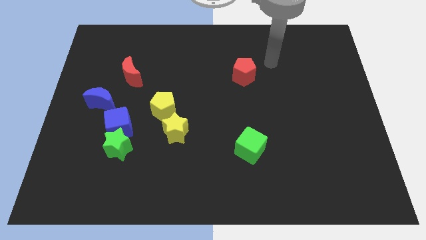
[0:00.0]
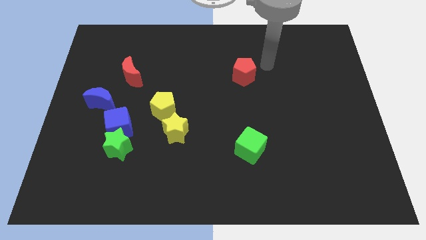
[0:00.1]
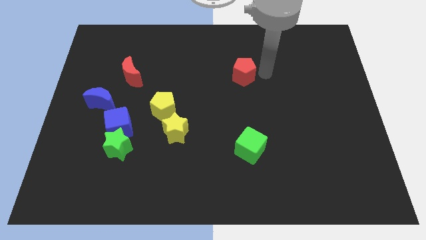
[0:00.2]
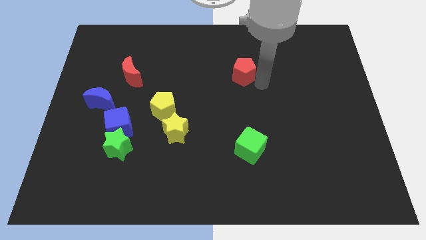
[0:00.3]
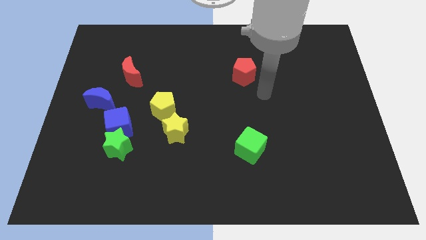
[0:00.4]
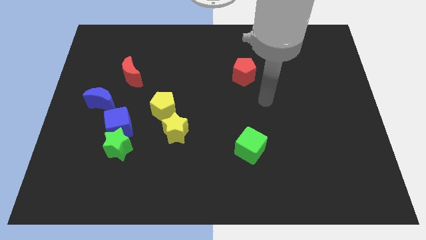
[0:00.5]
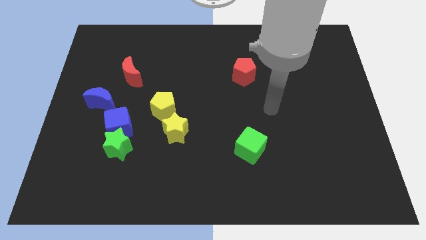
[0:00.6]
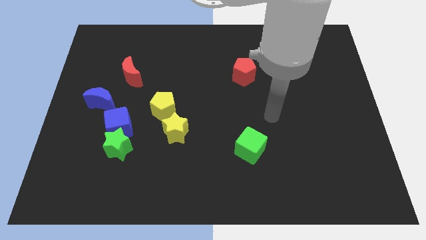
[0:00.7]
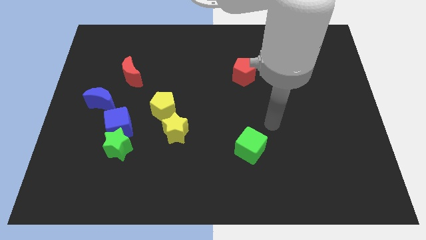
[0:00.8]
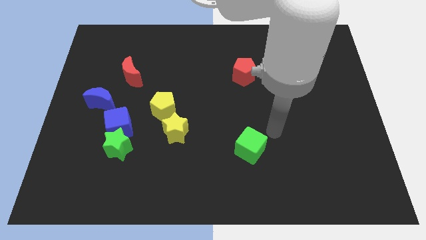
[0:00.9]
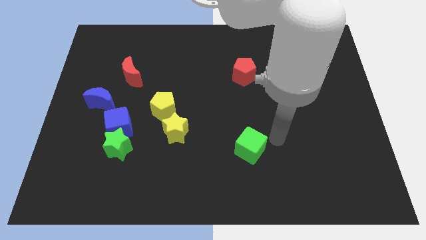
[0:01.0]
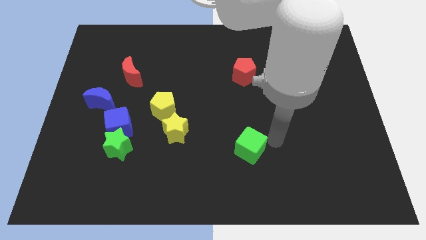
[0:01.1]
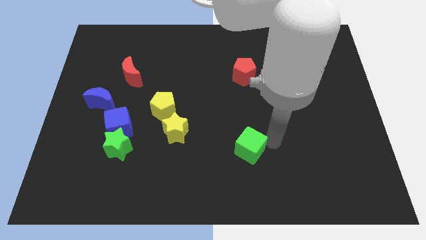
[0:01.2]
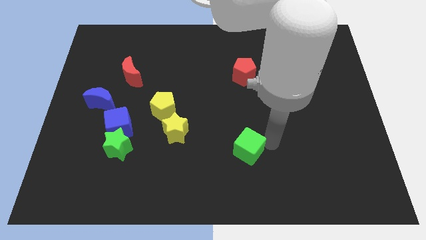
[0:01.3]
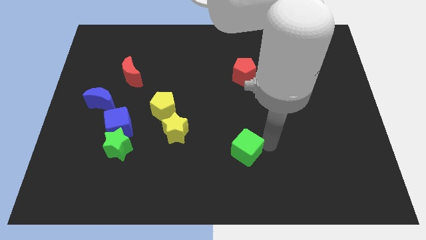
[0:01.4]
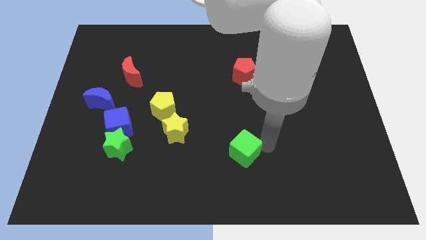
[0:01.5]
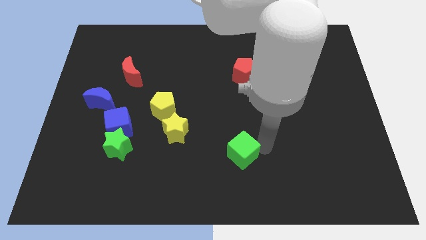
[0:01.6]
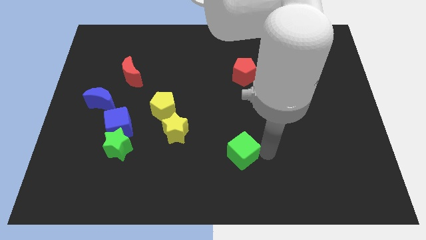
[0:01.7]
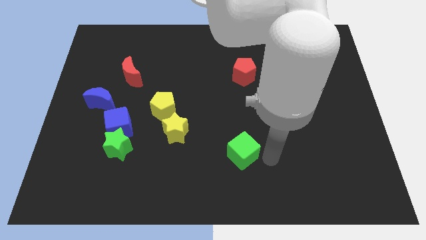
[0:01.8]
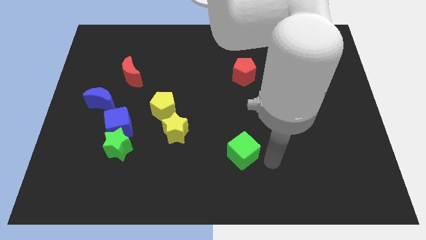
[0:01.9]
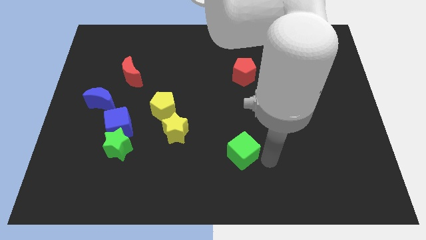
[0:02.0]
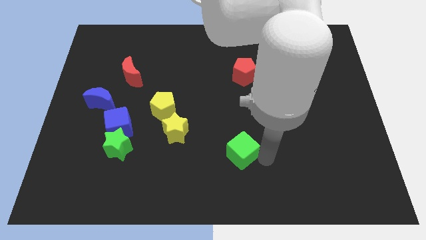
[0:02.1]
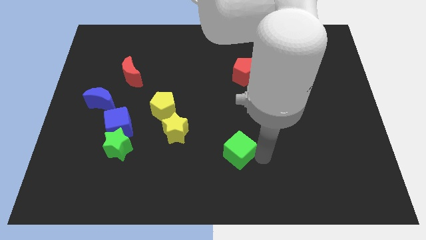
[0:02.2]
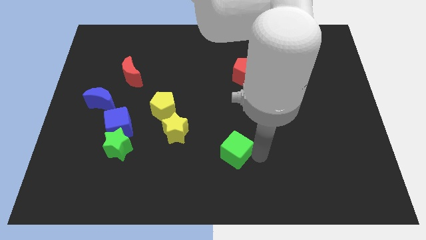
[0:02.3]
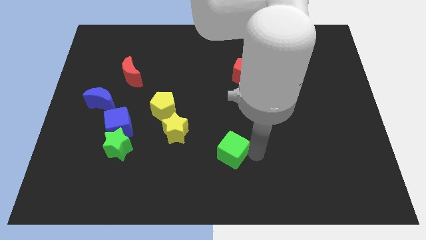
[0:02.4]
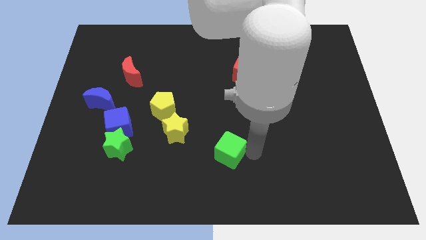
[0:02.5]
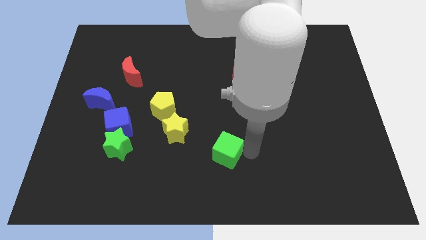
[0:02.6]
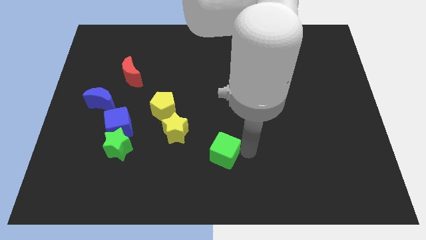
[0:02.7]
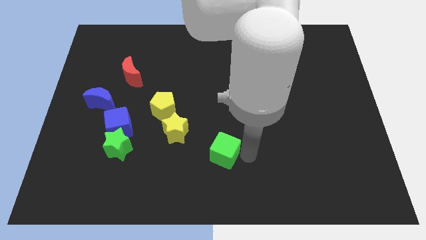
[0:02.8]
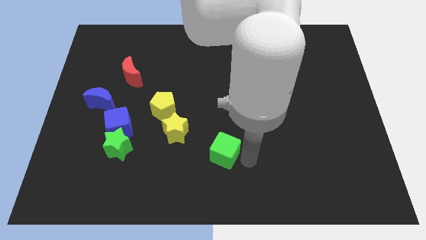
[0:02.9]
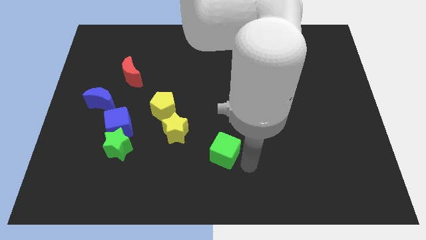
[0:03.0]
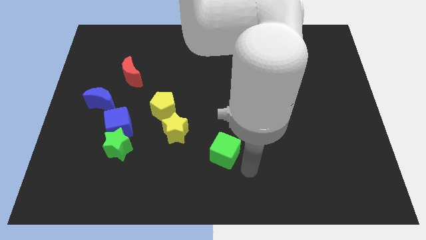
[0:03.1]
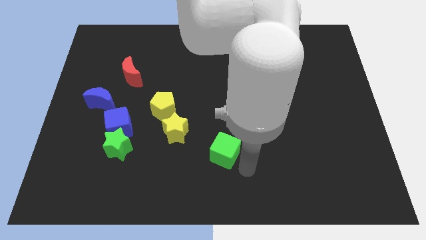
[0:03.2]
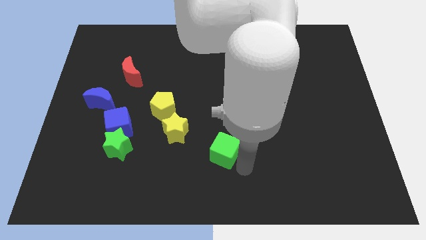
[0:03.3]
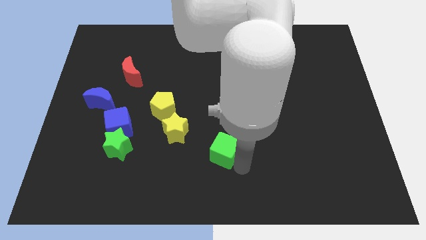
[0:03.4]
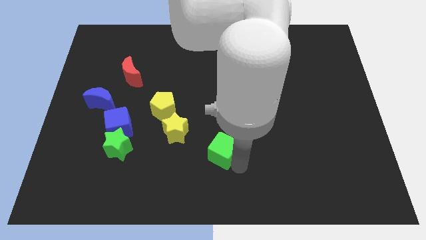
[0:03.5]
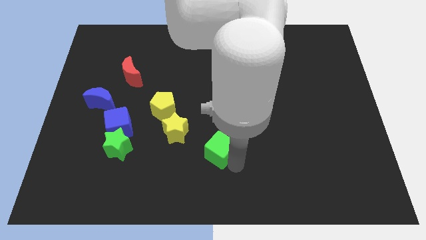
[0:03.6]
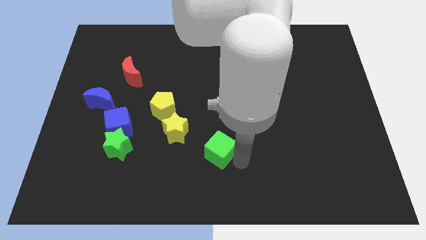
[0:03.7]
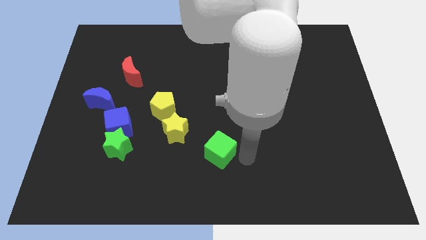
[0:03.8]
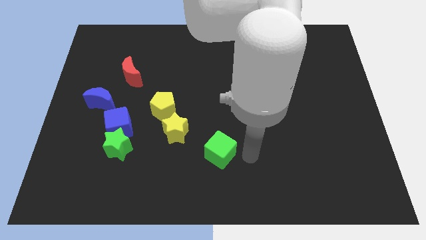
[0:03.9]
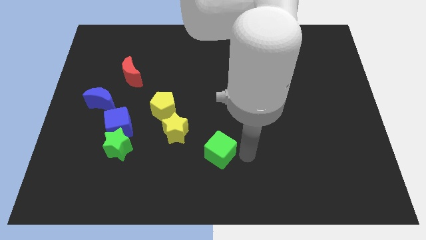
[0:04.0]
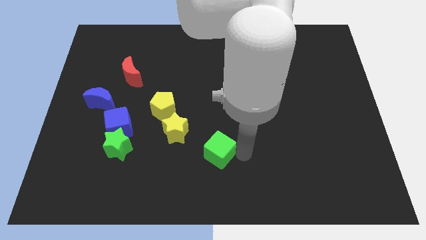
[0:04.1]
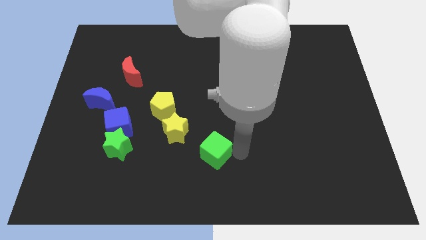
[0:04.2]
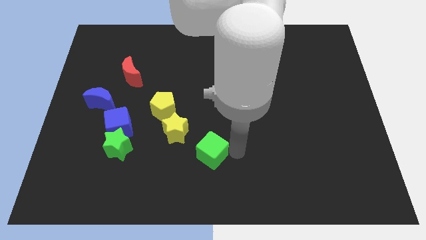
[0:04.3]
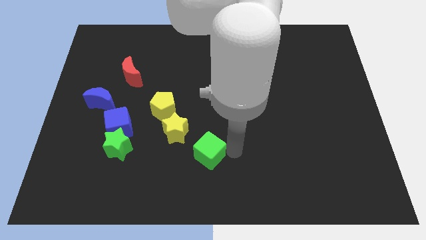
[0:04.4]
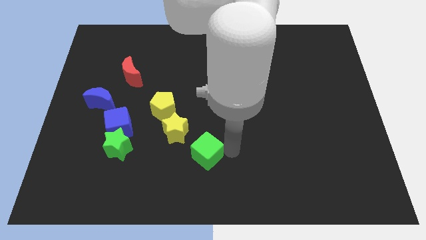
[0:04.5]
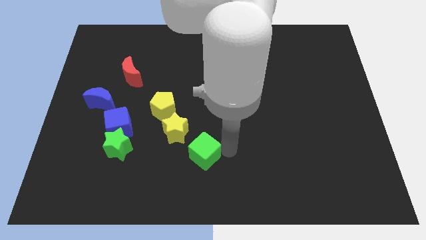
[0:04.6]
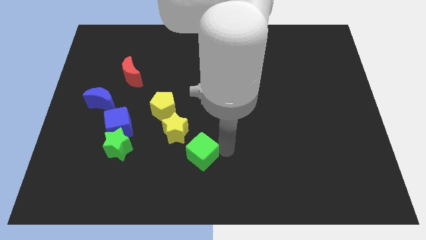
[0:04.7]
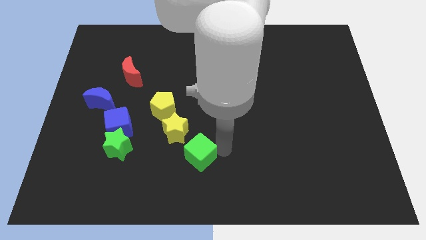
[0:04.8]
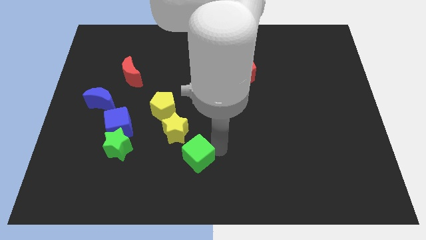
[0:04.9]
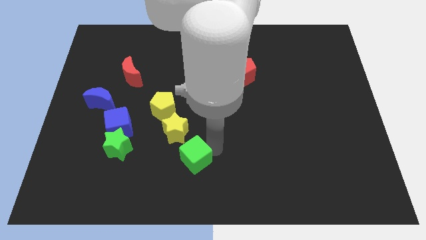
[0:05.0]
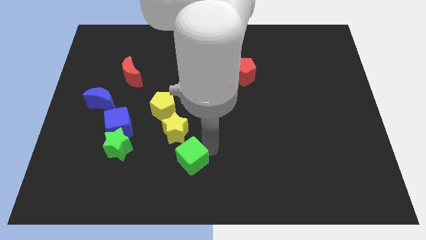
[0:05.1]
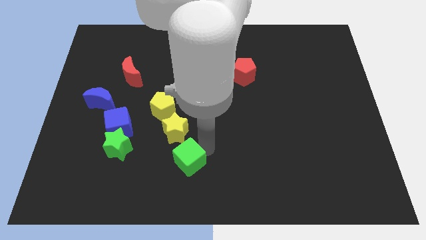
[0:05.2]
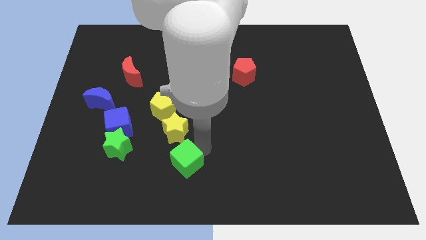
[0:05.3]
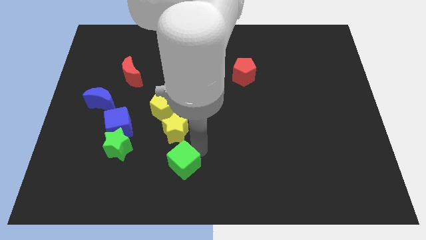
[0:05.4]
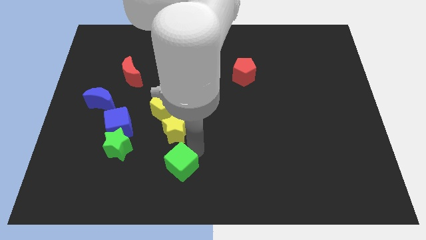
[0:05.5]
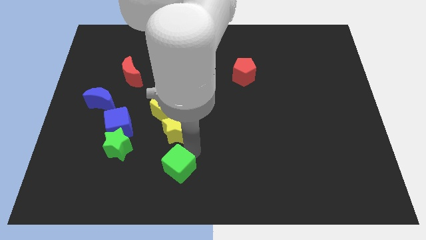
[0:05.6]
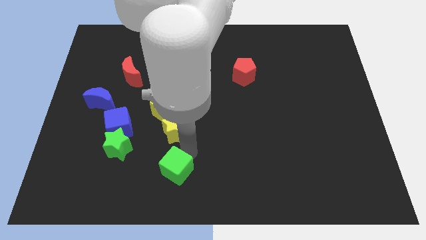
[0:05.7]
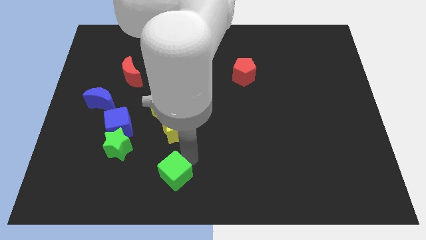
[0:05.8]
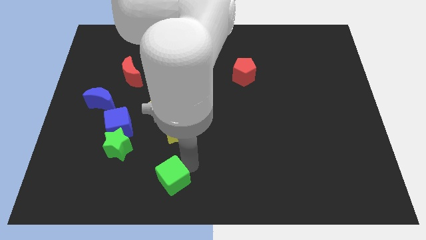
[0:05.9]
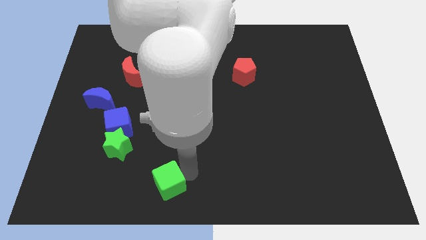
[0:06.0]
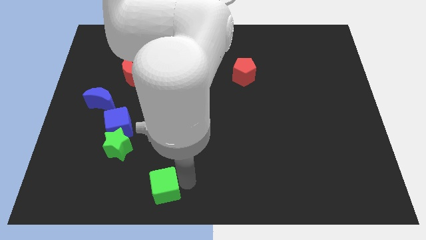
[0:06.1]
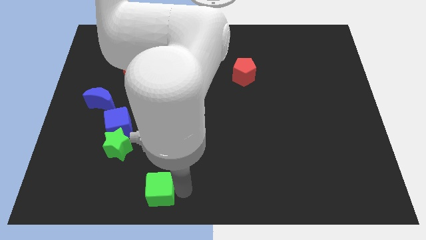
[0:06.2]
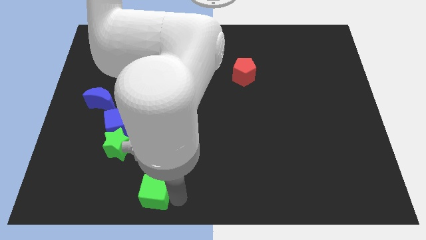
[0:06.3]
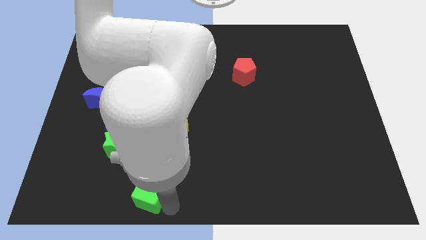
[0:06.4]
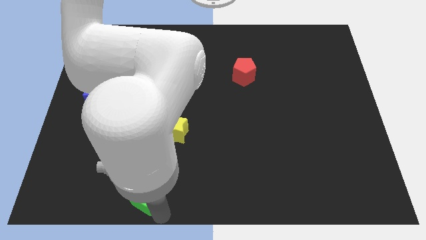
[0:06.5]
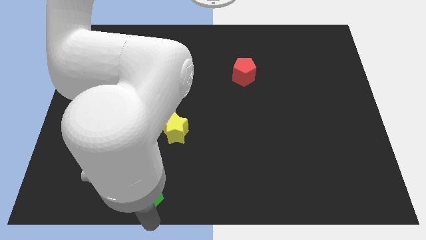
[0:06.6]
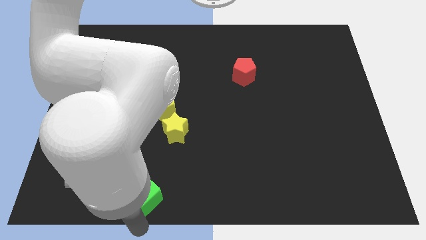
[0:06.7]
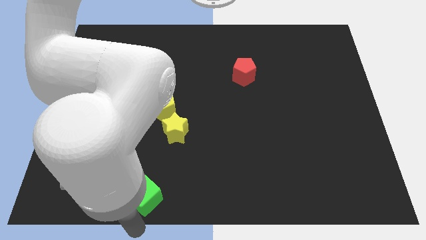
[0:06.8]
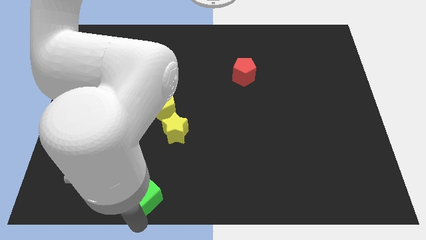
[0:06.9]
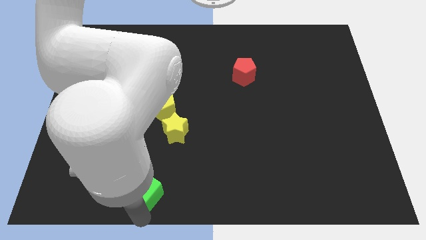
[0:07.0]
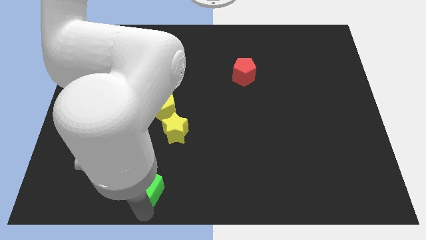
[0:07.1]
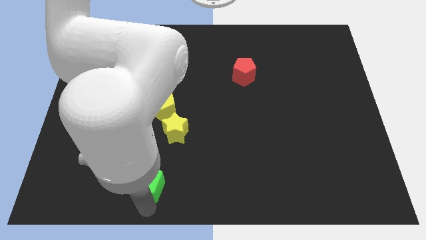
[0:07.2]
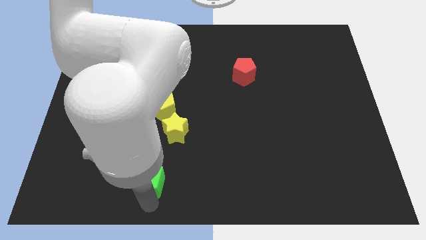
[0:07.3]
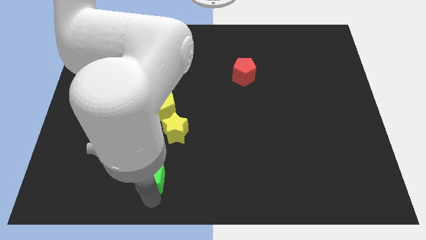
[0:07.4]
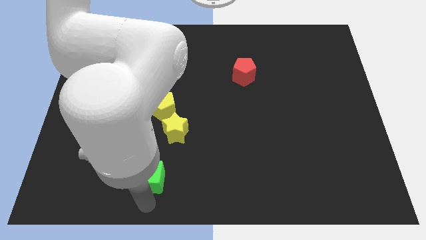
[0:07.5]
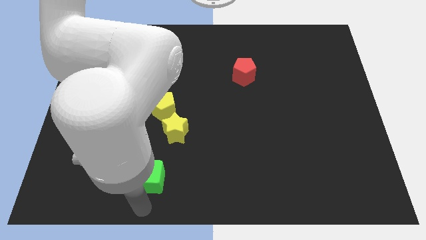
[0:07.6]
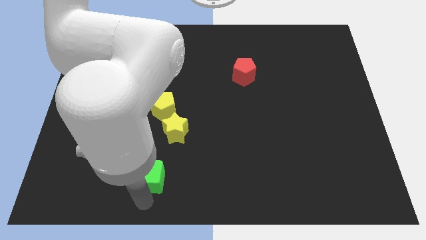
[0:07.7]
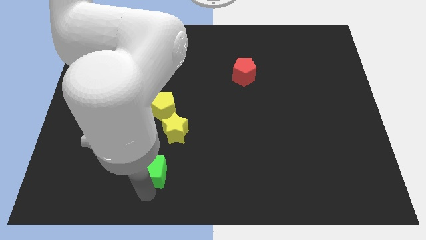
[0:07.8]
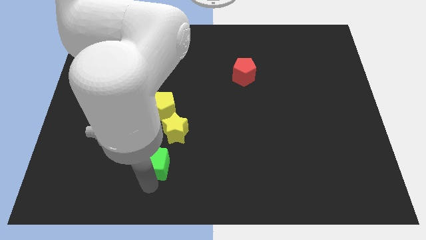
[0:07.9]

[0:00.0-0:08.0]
put the green cube to the bottom of the yellow pentagon

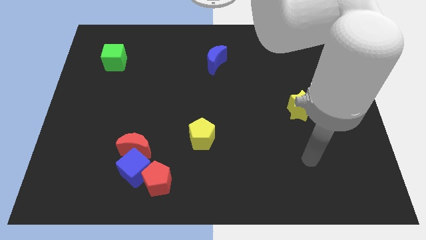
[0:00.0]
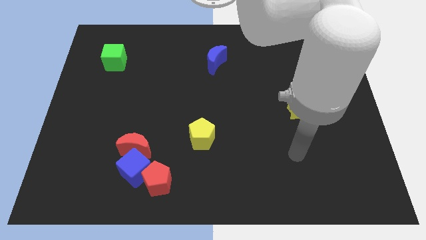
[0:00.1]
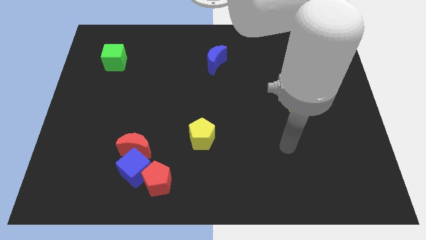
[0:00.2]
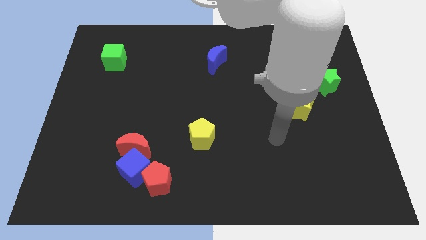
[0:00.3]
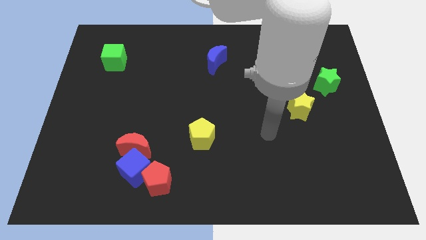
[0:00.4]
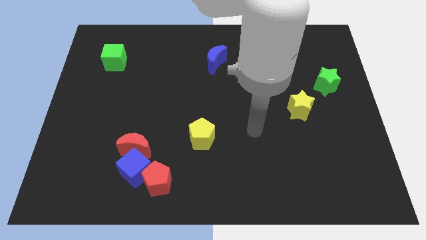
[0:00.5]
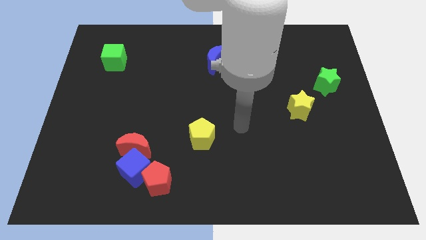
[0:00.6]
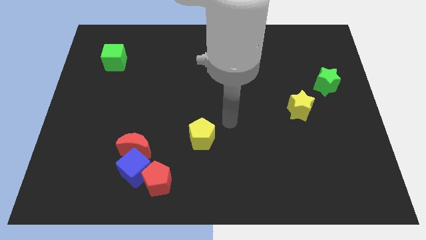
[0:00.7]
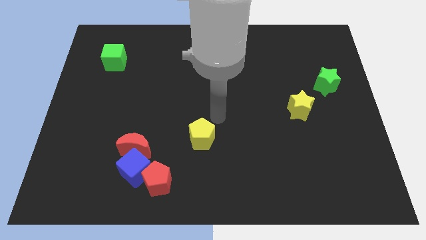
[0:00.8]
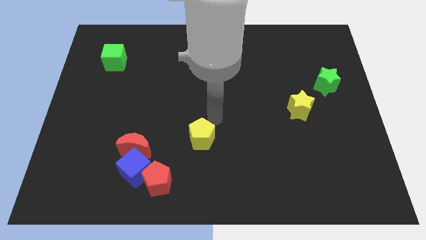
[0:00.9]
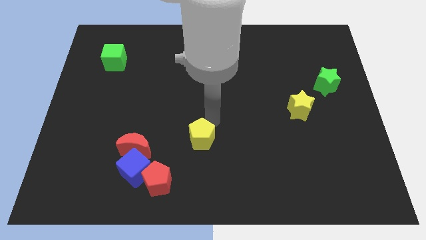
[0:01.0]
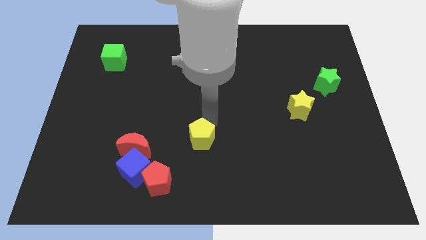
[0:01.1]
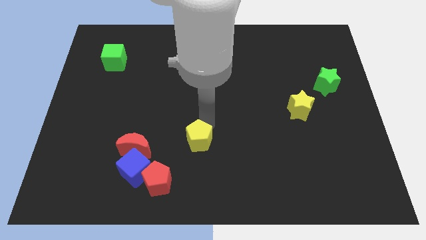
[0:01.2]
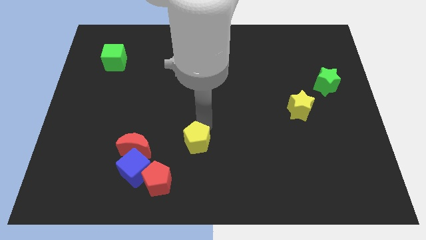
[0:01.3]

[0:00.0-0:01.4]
move the yellow pentagon to the top right side of the red pentagon
